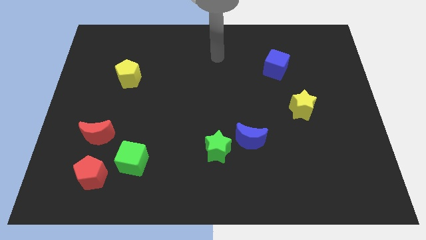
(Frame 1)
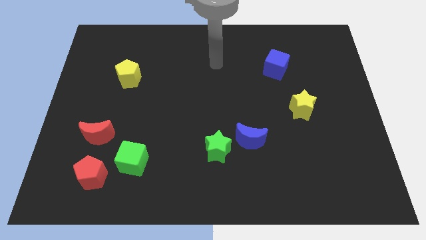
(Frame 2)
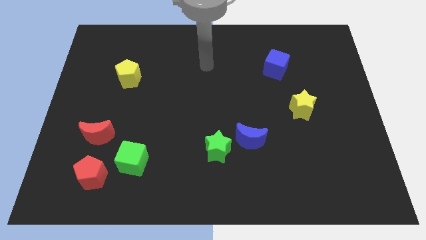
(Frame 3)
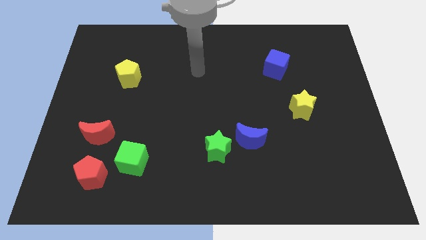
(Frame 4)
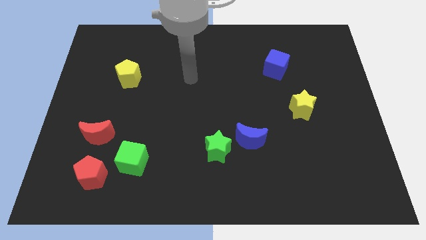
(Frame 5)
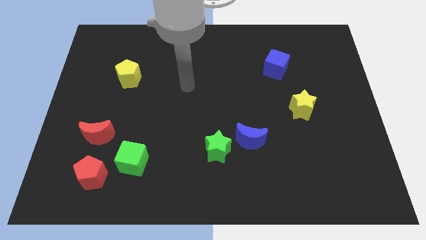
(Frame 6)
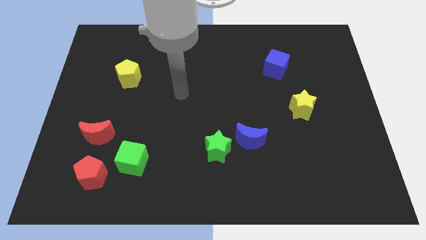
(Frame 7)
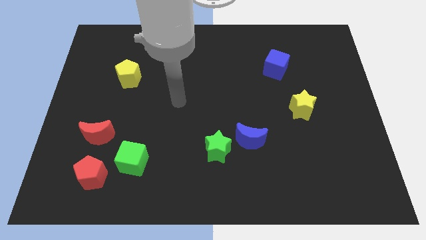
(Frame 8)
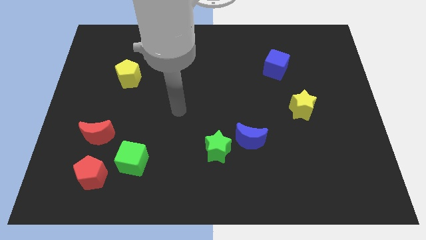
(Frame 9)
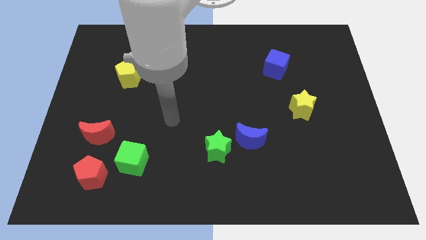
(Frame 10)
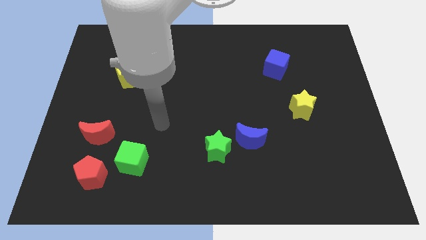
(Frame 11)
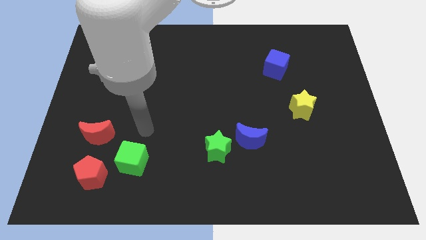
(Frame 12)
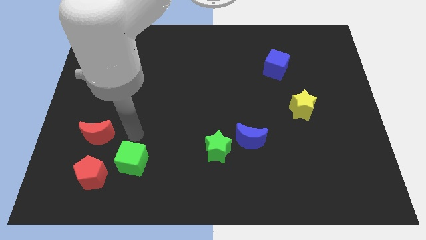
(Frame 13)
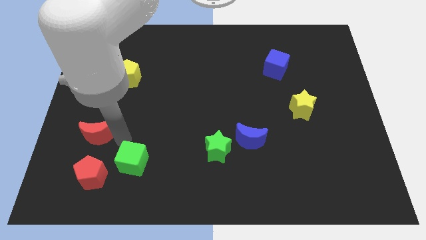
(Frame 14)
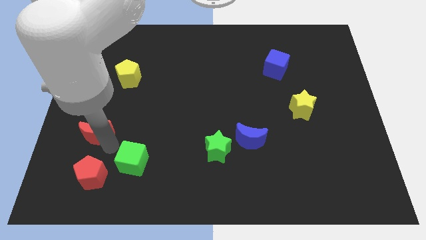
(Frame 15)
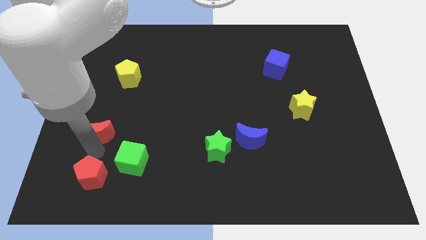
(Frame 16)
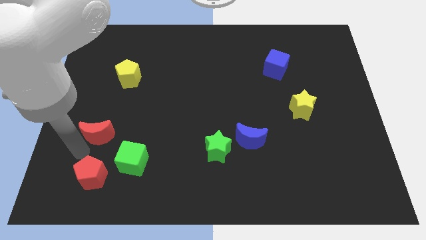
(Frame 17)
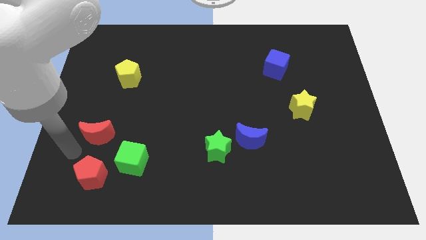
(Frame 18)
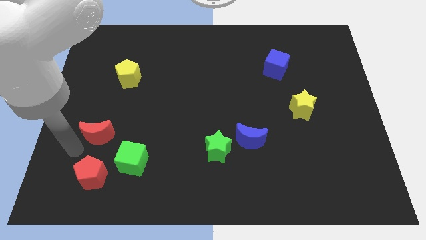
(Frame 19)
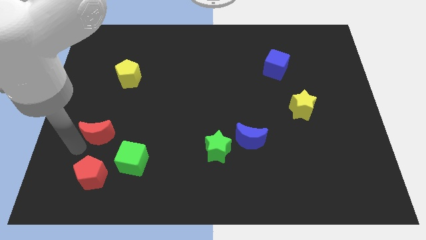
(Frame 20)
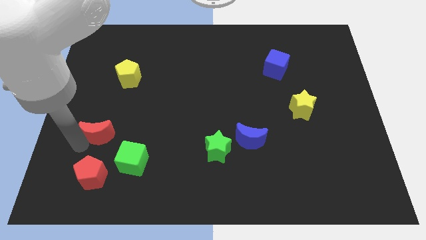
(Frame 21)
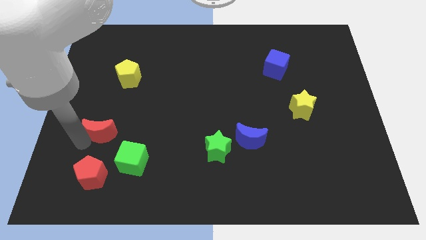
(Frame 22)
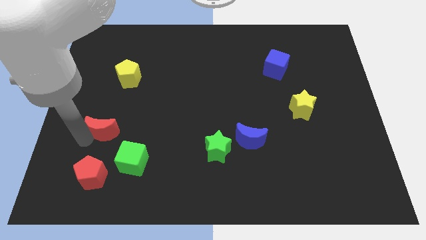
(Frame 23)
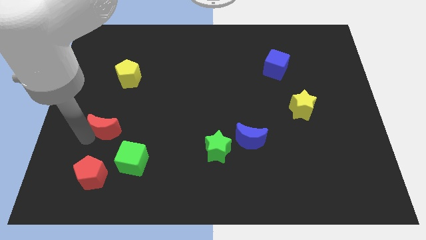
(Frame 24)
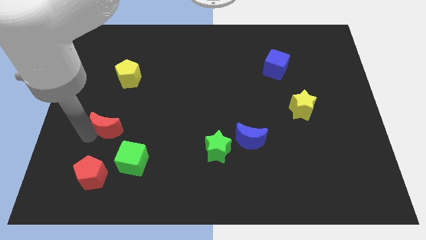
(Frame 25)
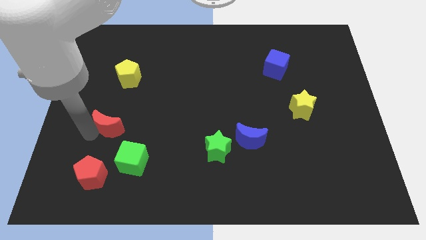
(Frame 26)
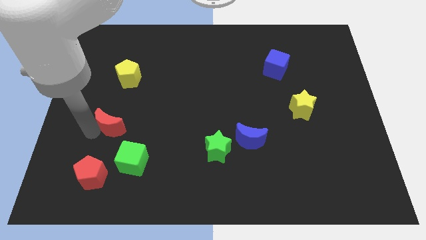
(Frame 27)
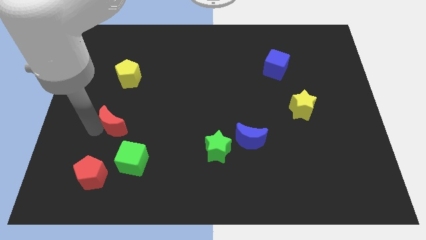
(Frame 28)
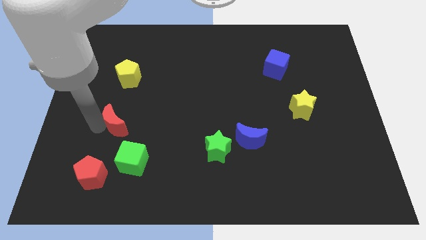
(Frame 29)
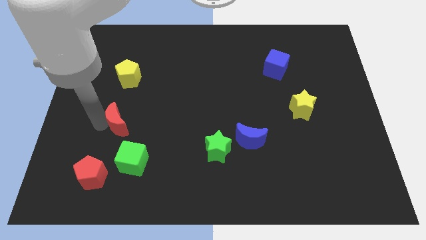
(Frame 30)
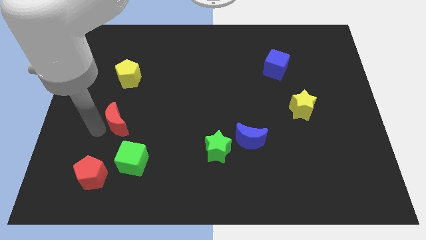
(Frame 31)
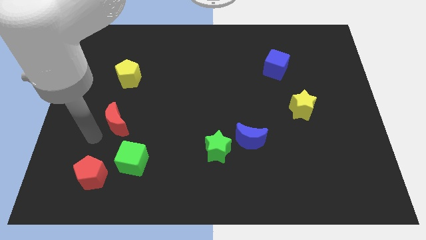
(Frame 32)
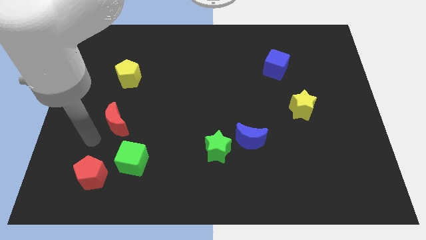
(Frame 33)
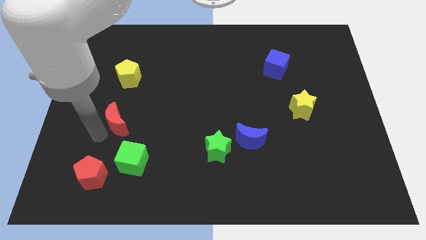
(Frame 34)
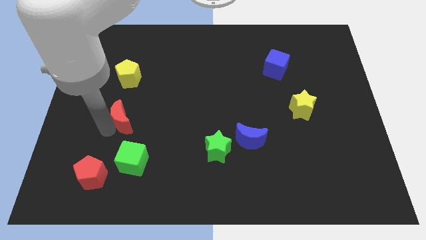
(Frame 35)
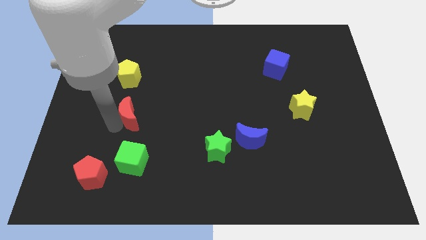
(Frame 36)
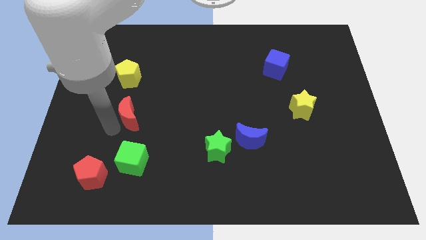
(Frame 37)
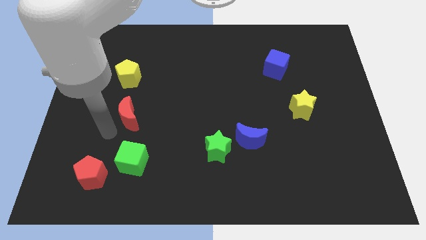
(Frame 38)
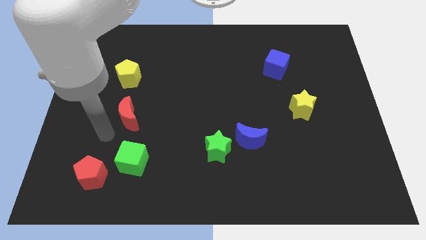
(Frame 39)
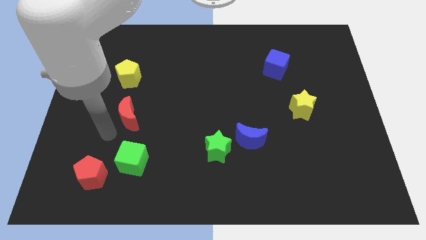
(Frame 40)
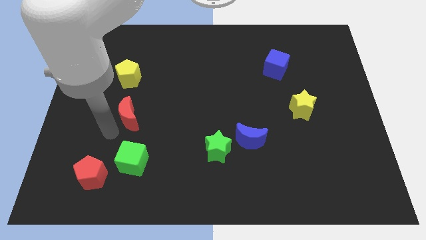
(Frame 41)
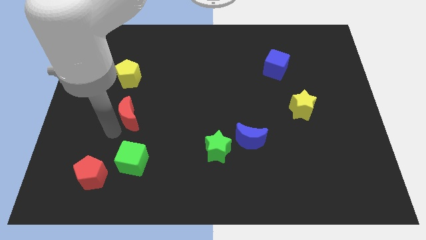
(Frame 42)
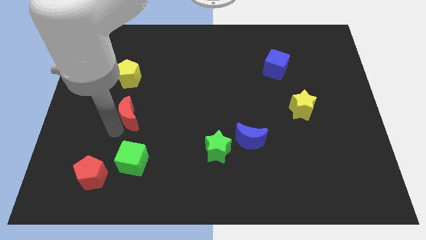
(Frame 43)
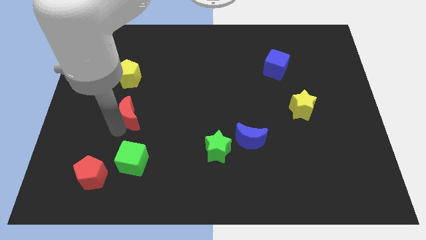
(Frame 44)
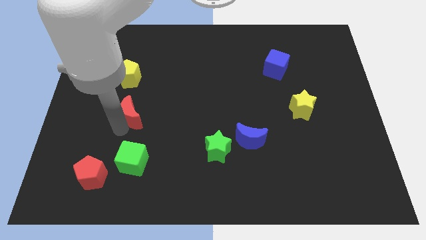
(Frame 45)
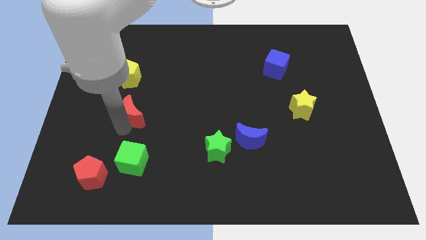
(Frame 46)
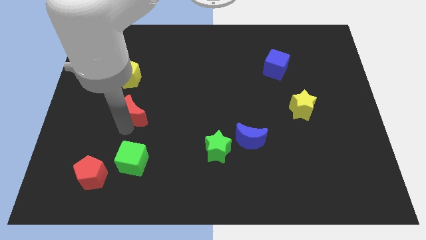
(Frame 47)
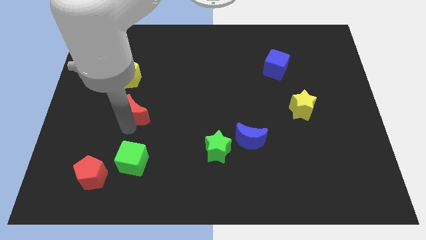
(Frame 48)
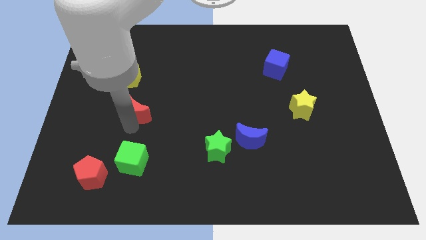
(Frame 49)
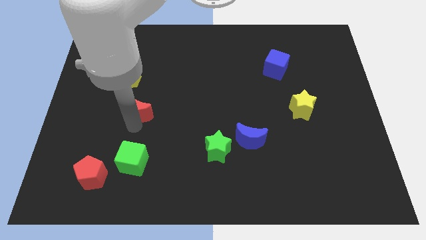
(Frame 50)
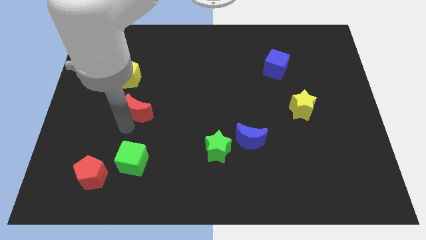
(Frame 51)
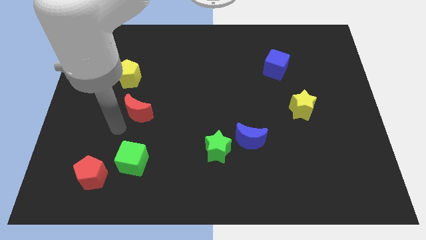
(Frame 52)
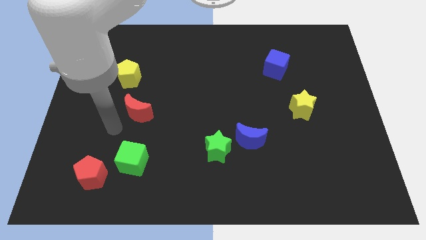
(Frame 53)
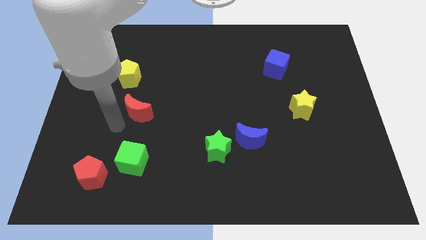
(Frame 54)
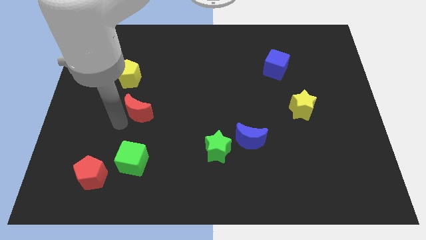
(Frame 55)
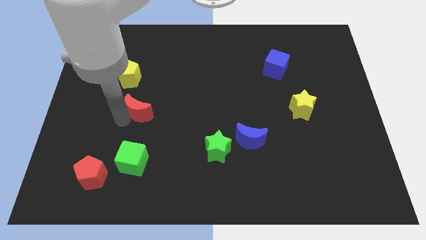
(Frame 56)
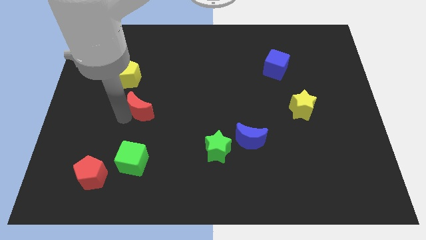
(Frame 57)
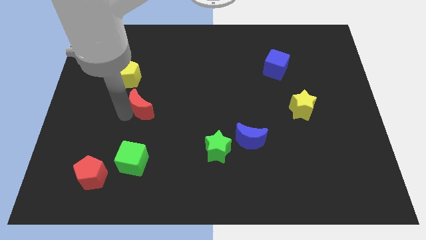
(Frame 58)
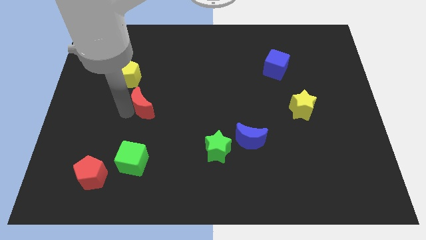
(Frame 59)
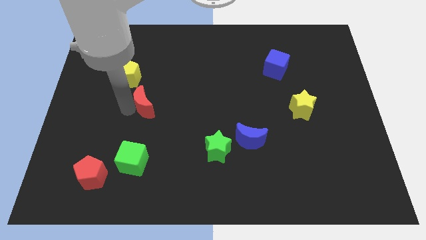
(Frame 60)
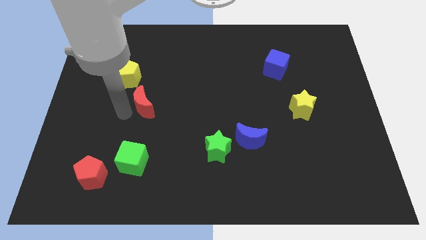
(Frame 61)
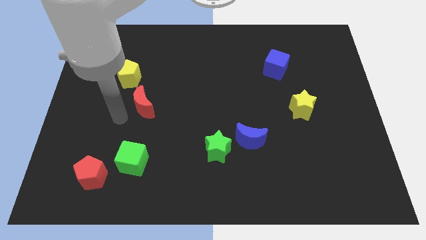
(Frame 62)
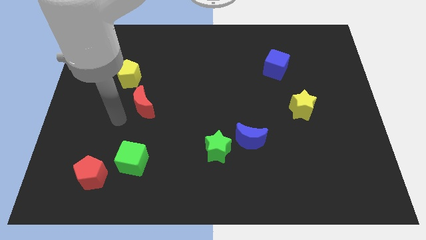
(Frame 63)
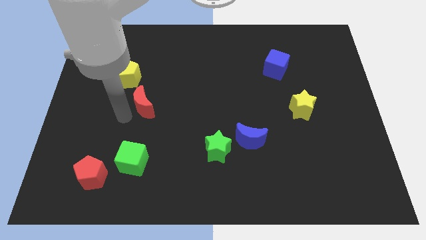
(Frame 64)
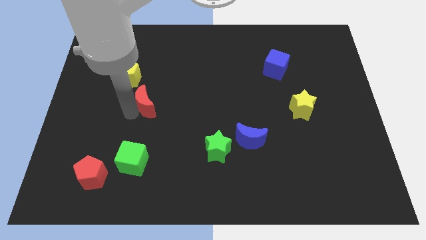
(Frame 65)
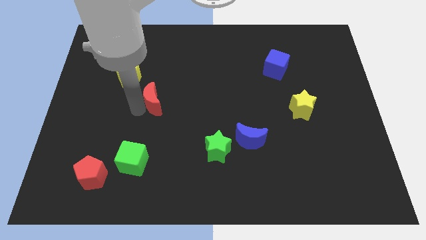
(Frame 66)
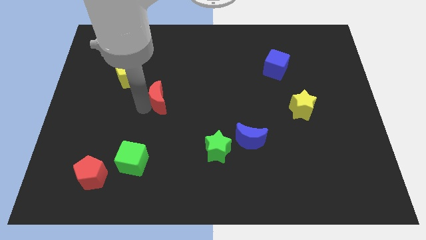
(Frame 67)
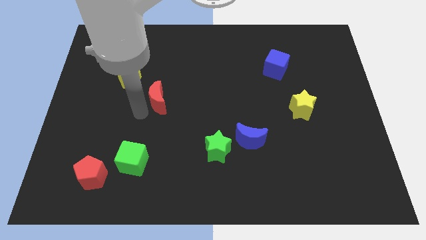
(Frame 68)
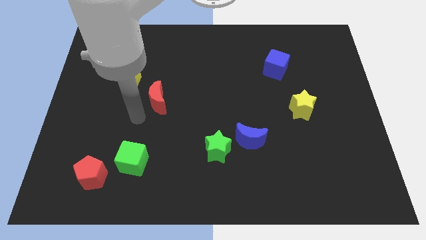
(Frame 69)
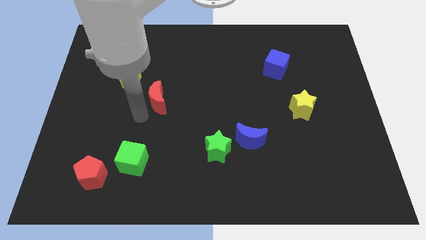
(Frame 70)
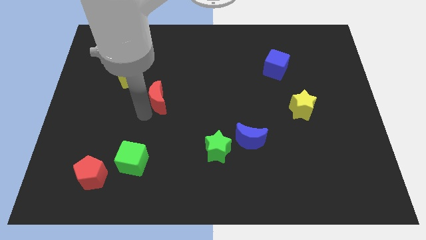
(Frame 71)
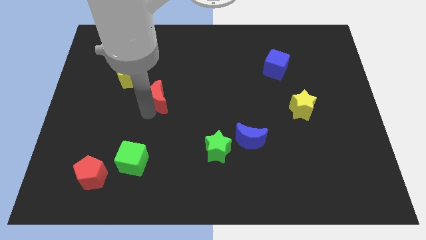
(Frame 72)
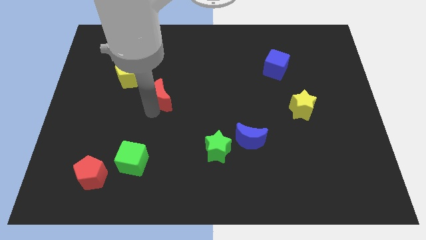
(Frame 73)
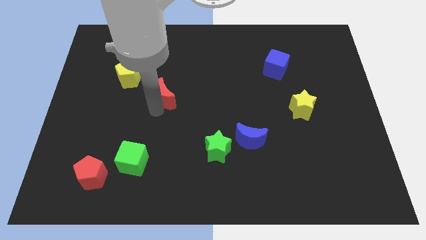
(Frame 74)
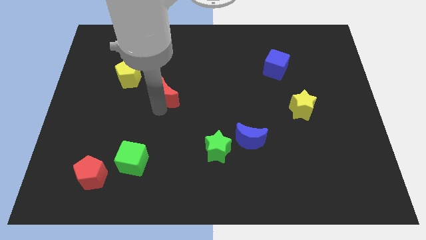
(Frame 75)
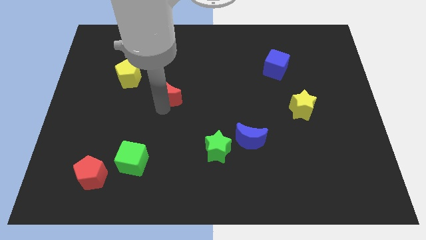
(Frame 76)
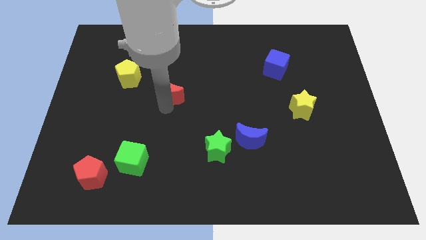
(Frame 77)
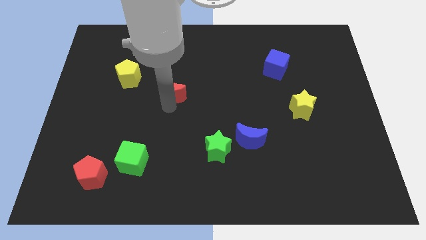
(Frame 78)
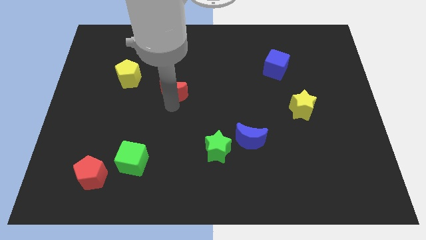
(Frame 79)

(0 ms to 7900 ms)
slide the red moon diagonally up and to the right
